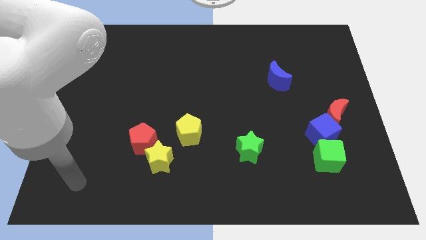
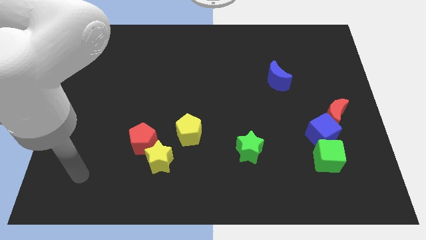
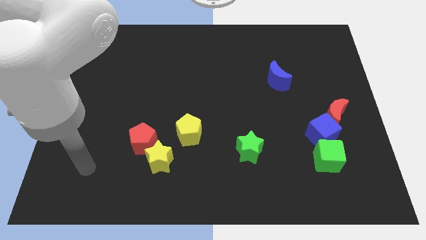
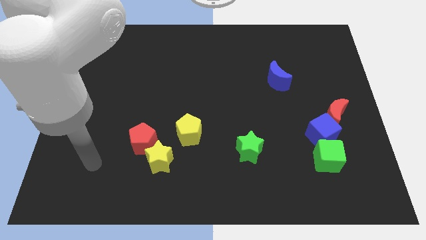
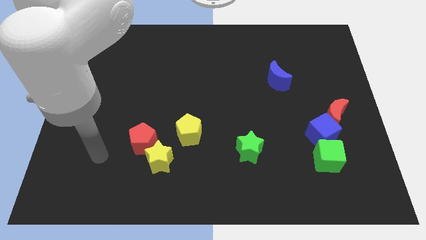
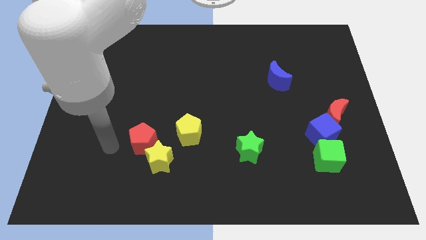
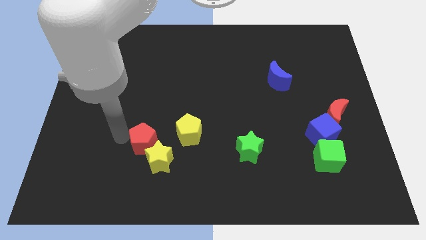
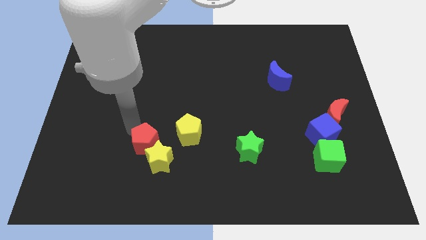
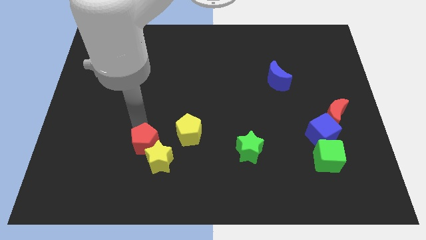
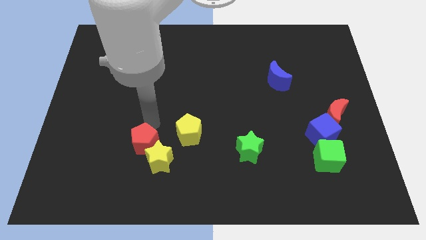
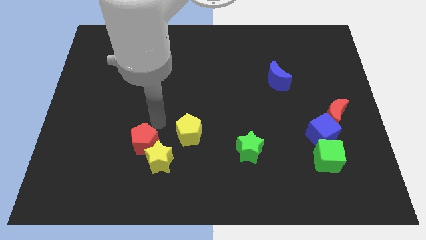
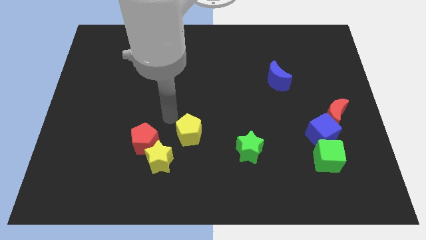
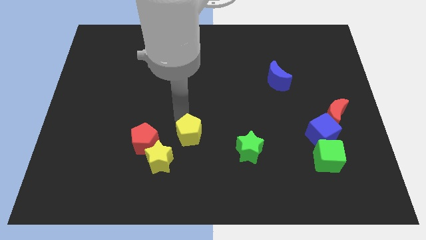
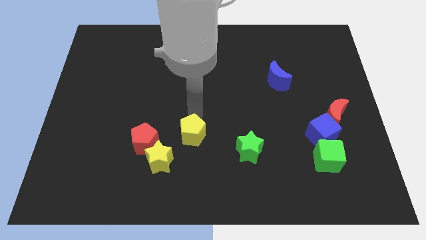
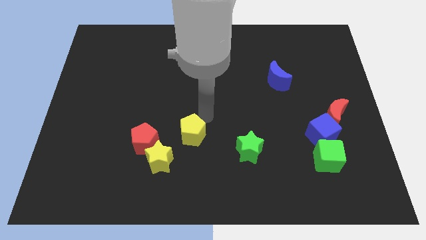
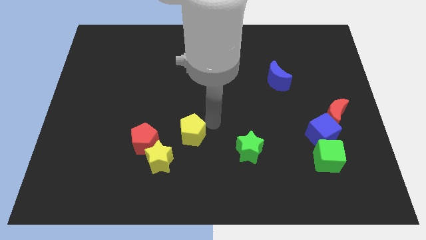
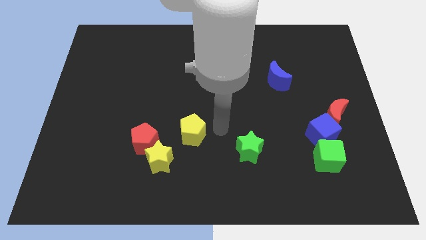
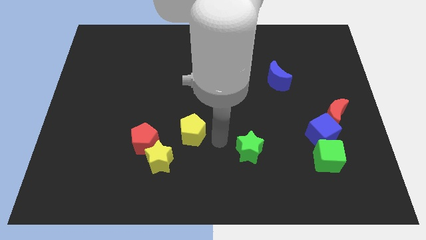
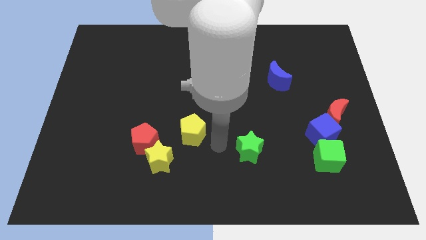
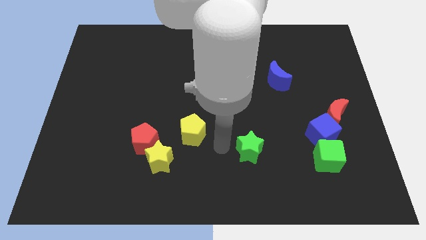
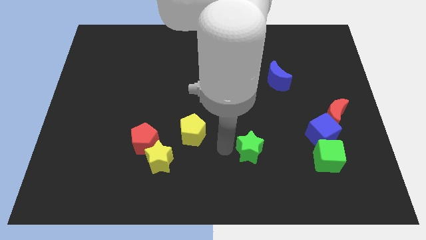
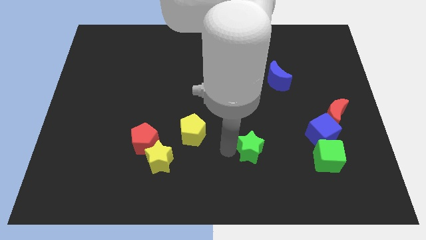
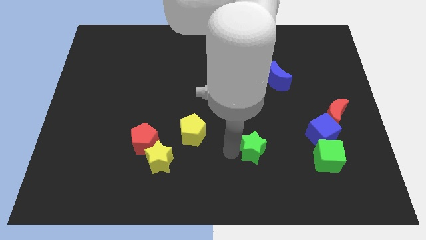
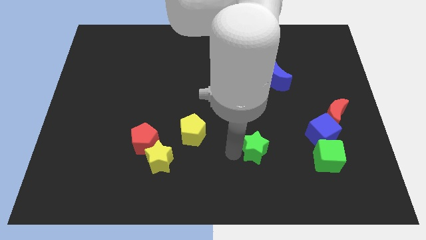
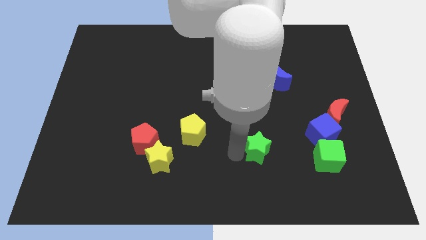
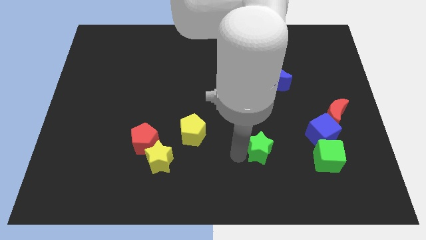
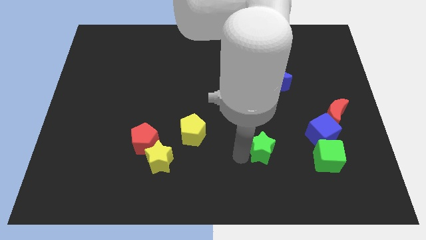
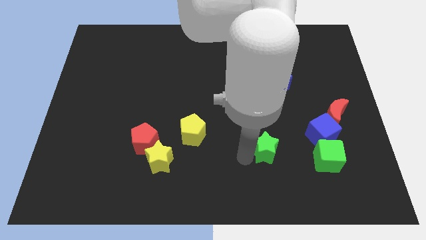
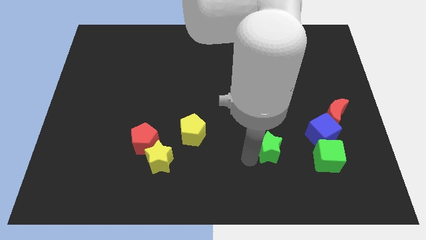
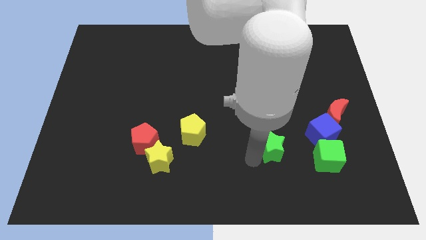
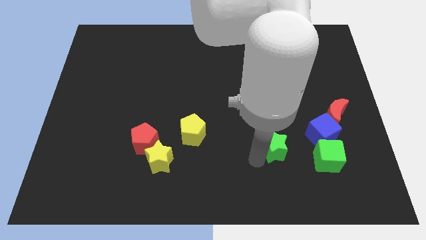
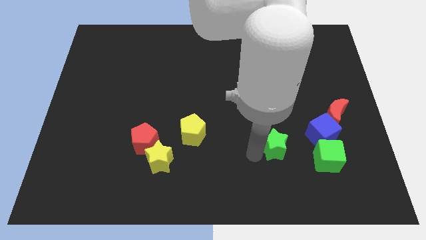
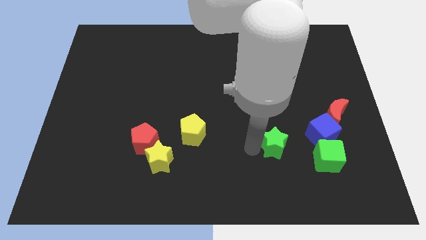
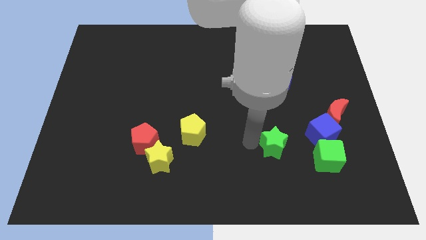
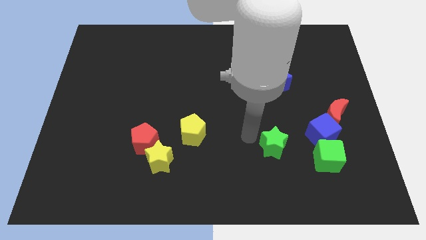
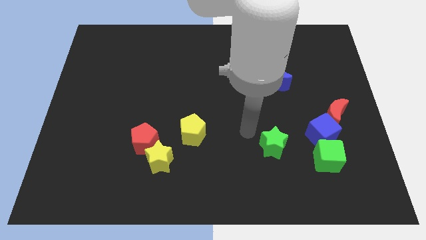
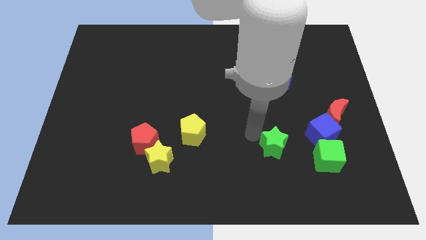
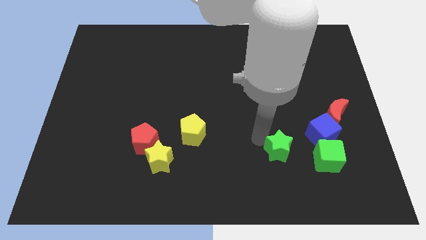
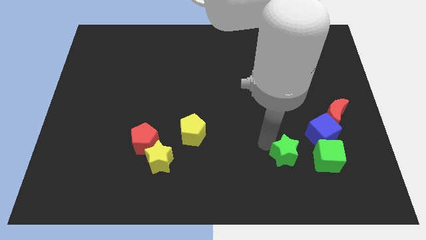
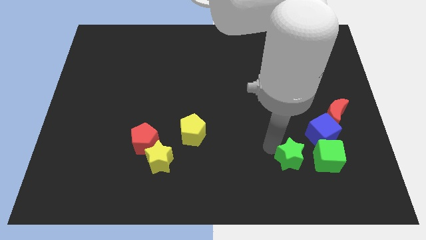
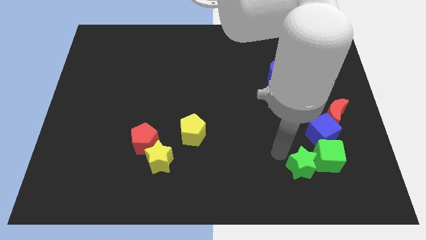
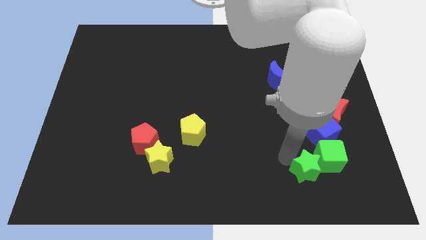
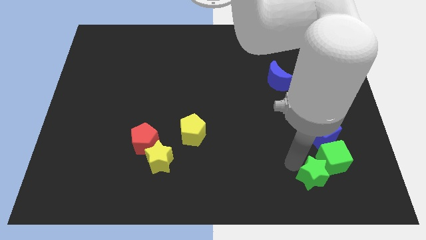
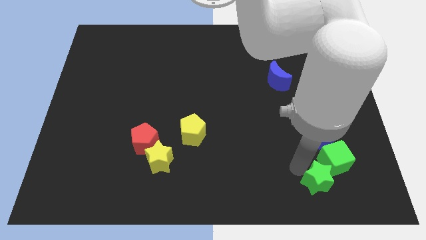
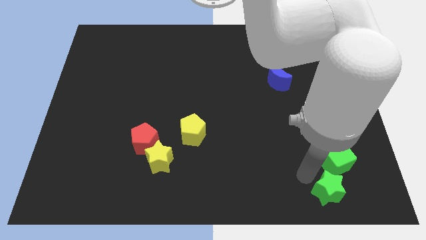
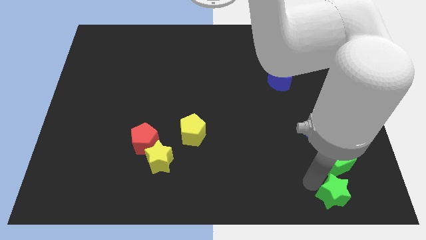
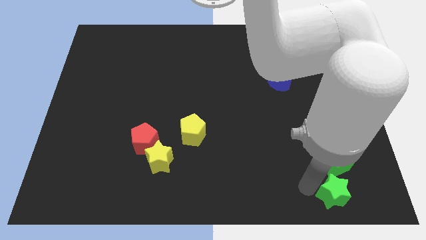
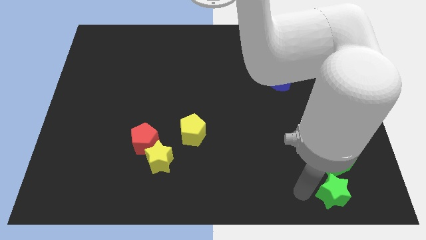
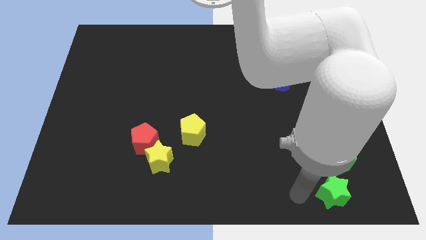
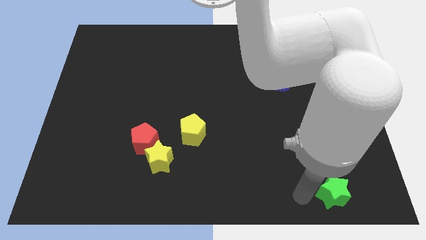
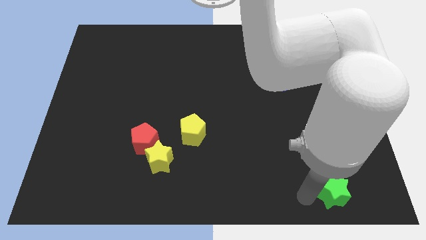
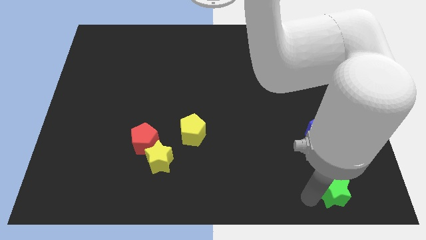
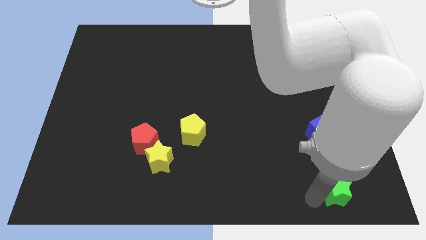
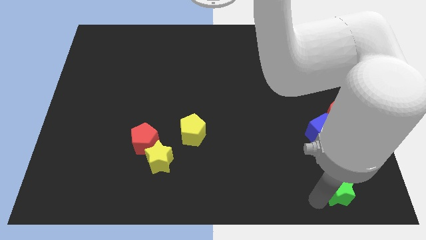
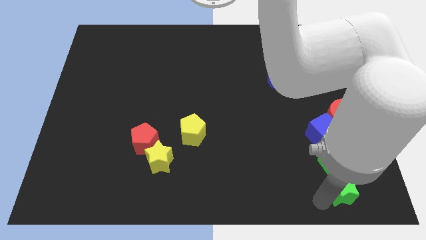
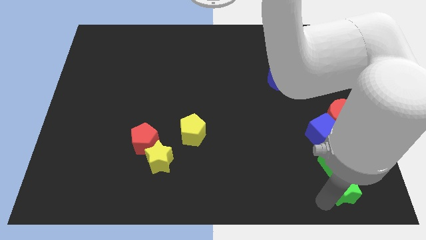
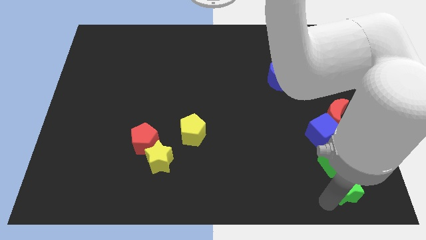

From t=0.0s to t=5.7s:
move the green star to the bottom right

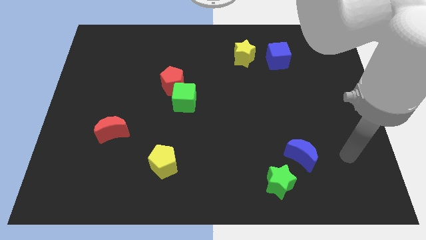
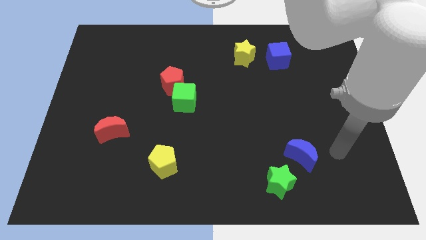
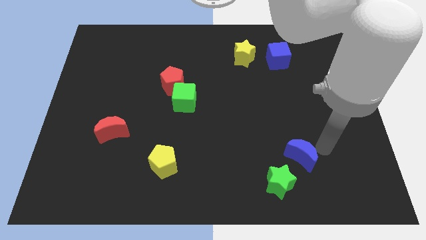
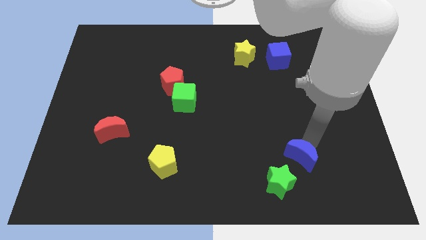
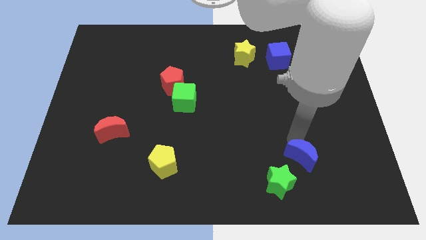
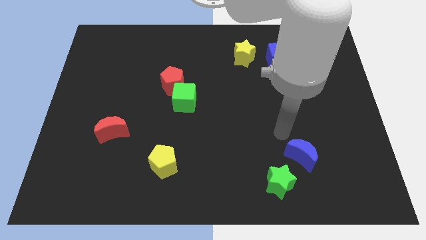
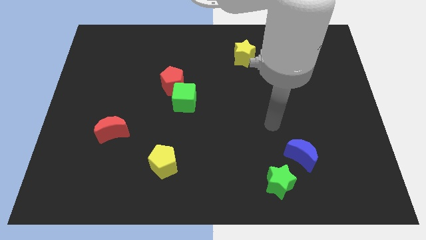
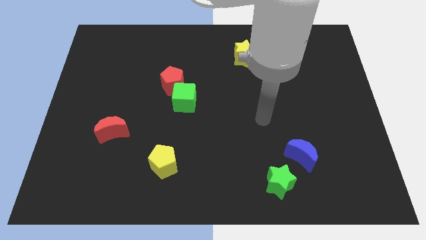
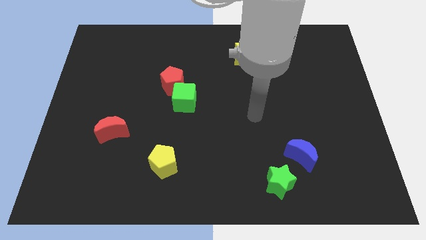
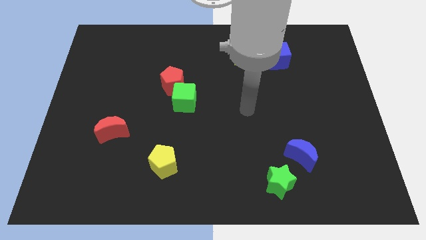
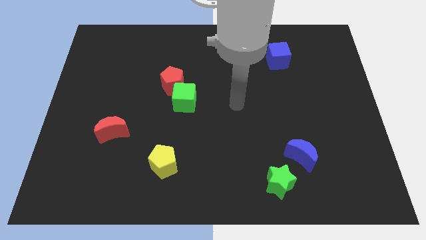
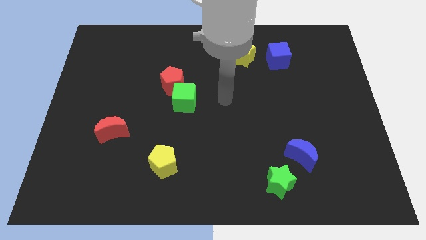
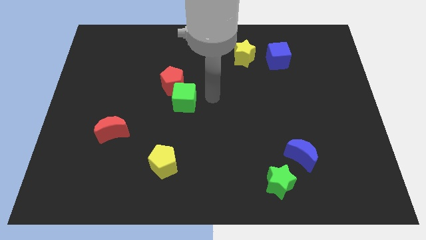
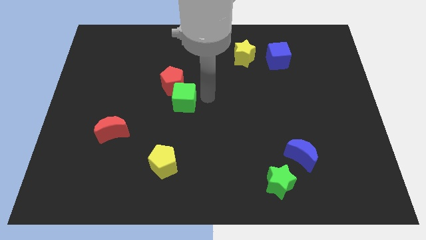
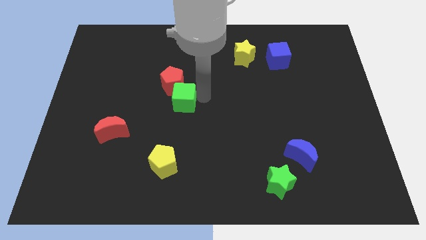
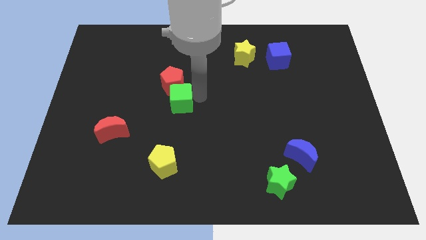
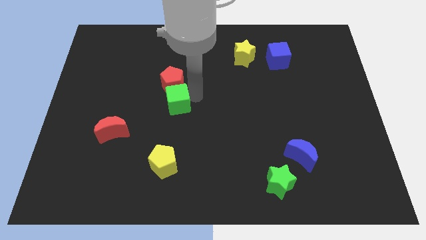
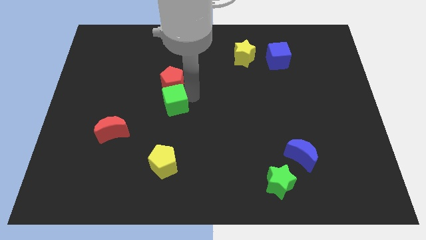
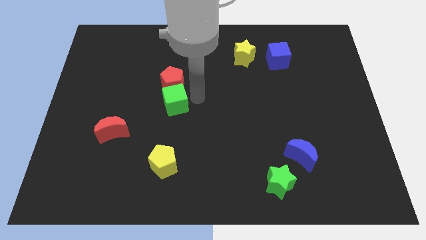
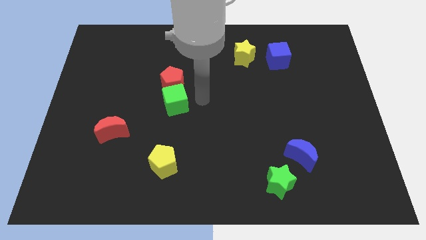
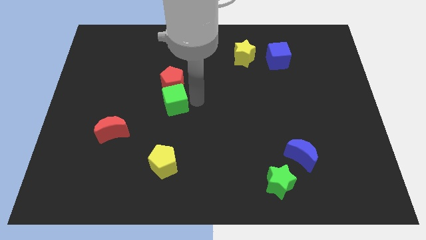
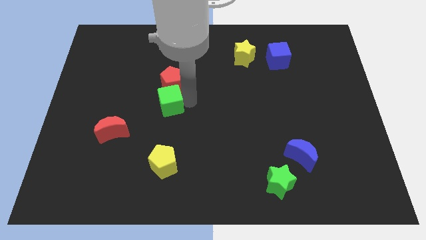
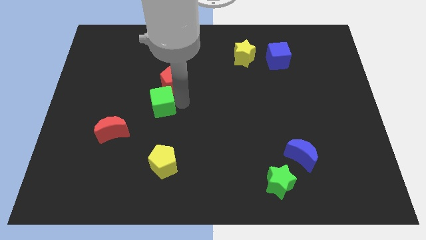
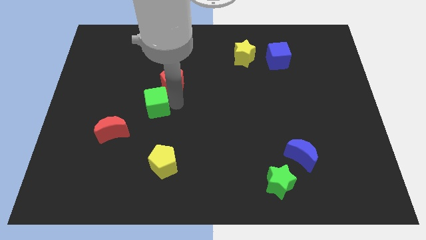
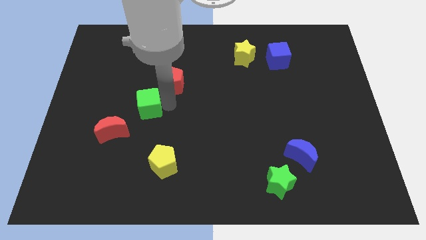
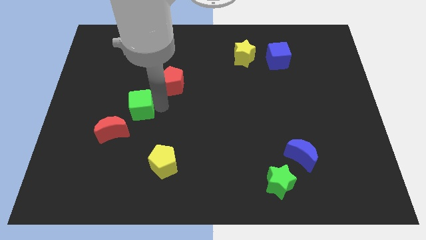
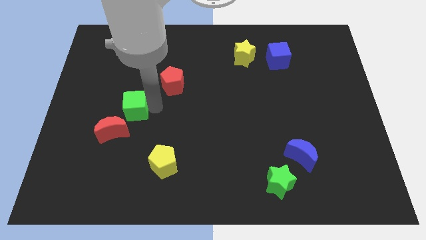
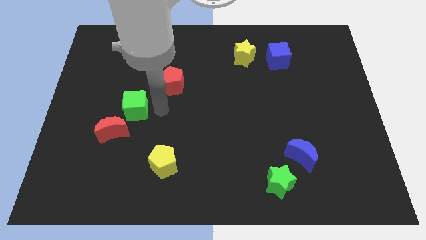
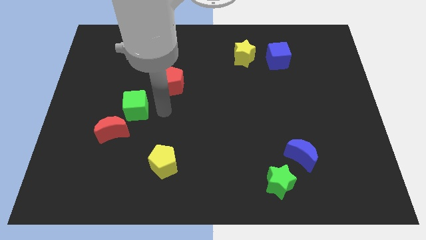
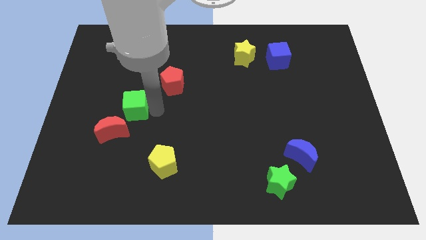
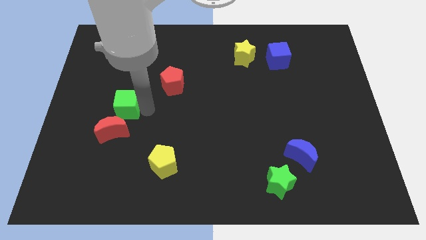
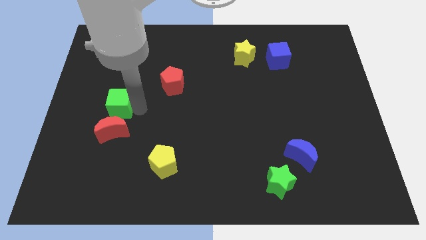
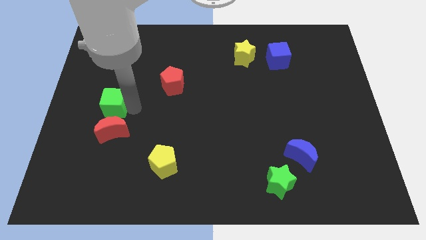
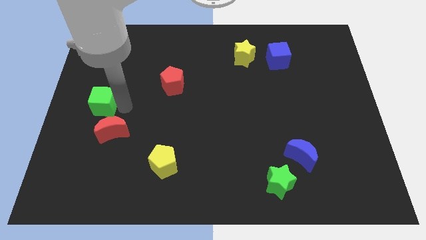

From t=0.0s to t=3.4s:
move the green cube to the left side
